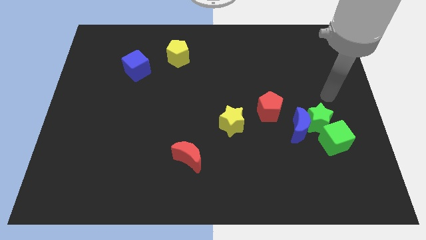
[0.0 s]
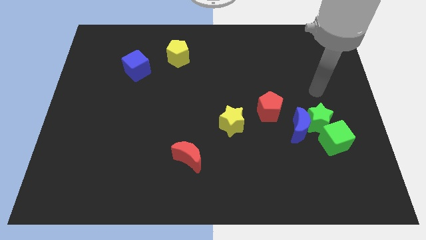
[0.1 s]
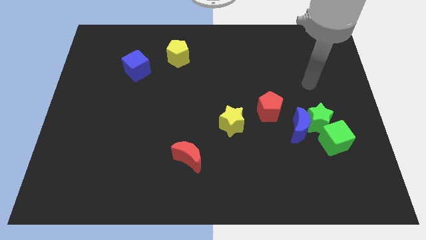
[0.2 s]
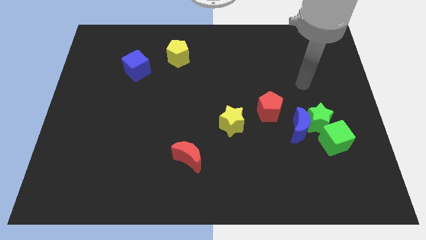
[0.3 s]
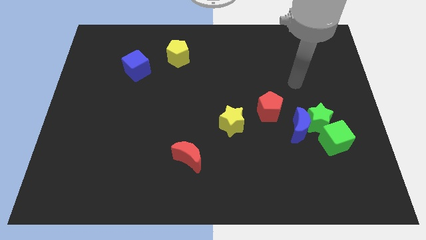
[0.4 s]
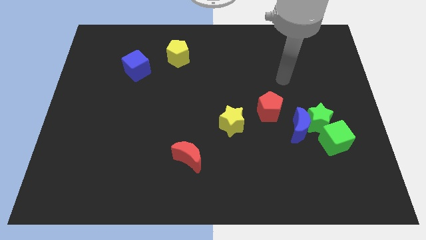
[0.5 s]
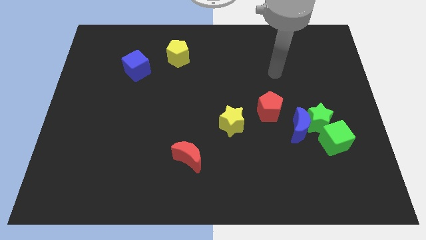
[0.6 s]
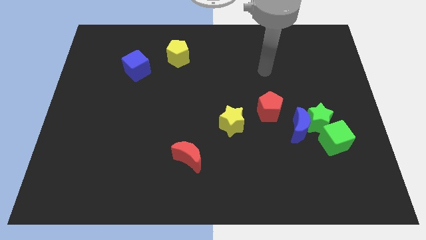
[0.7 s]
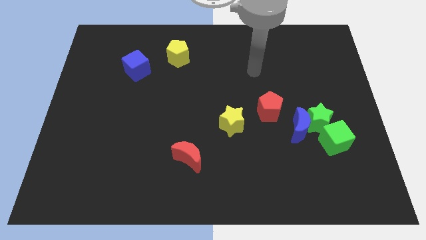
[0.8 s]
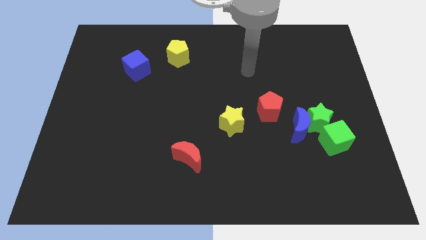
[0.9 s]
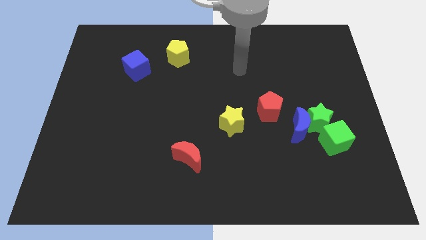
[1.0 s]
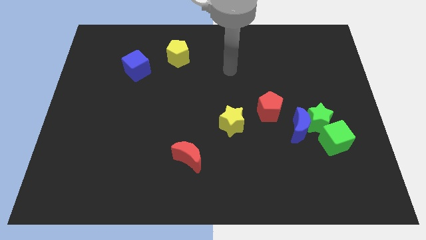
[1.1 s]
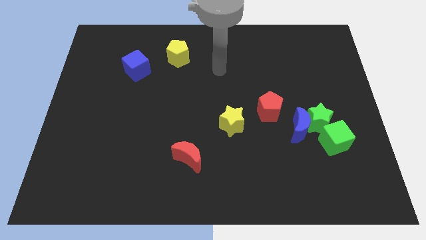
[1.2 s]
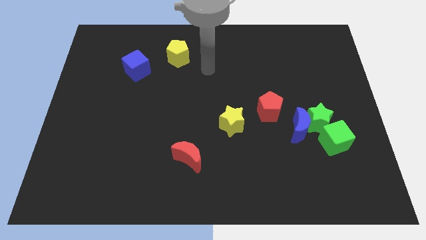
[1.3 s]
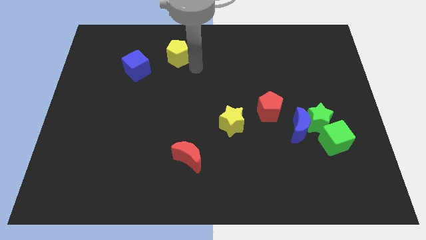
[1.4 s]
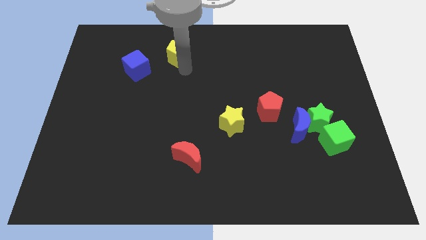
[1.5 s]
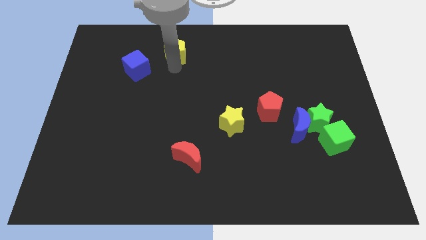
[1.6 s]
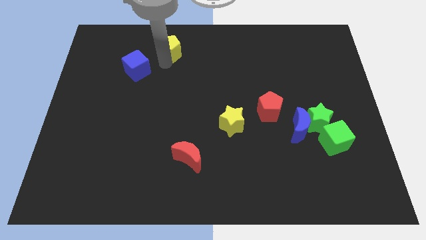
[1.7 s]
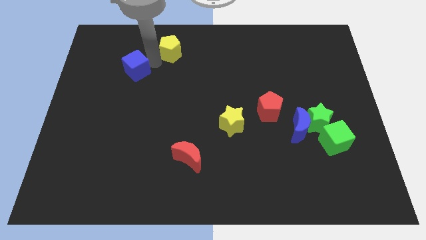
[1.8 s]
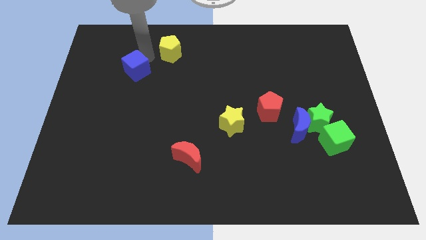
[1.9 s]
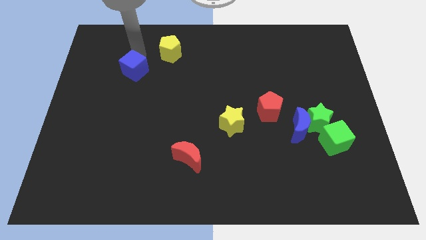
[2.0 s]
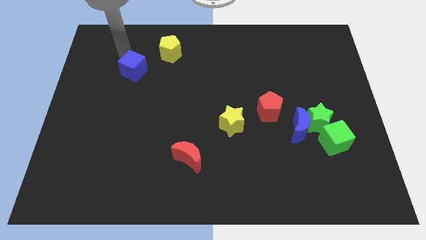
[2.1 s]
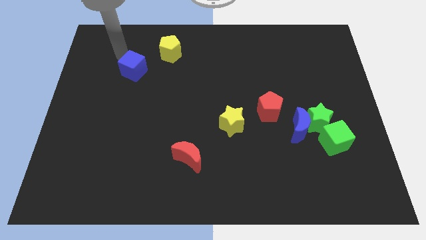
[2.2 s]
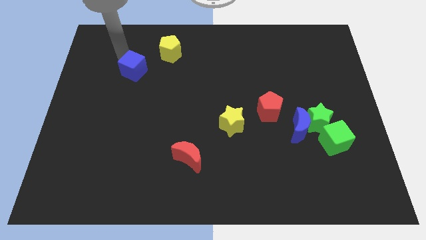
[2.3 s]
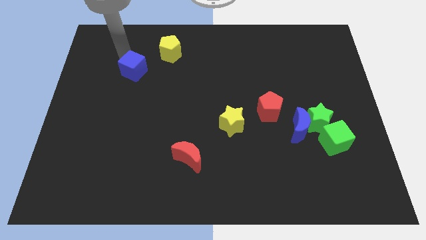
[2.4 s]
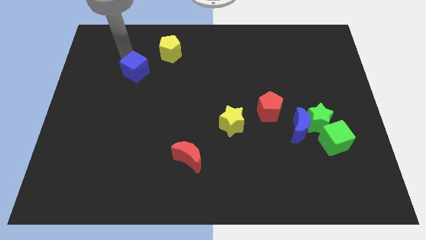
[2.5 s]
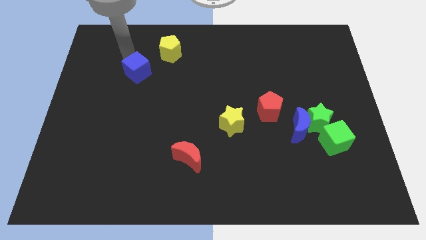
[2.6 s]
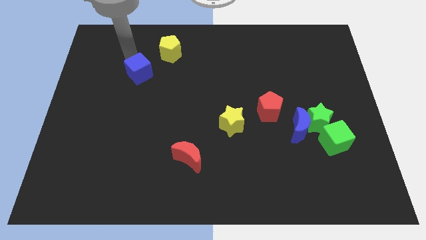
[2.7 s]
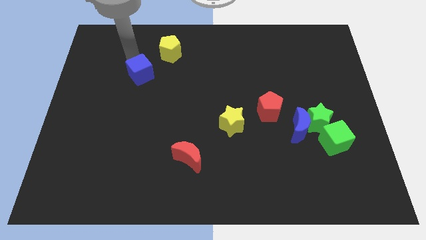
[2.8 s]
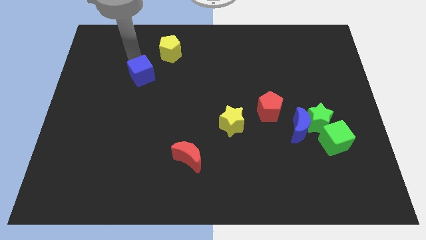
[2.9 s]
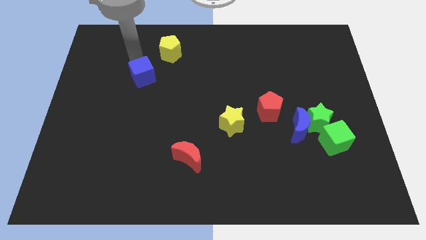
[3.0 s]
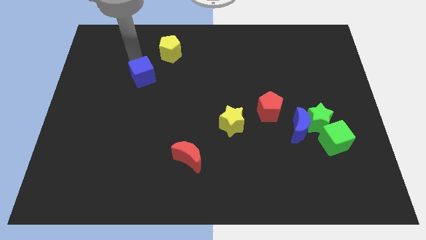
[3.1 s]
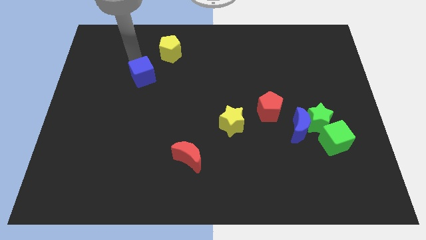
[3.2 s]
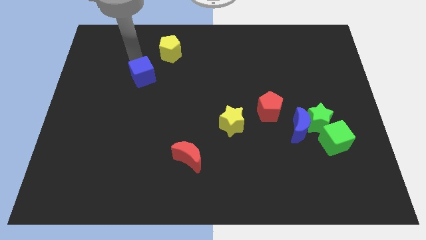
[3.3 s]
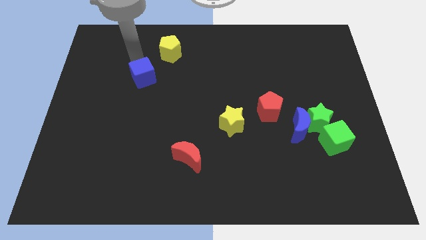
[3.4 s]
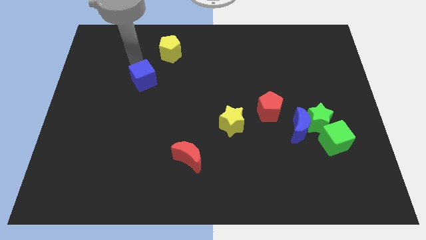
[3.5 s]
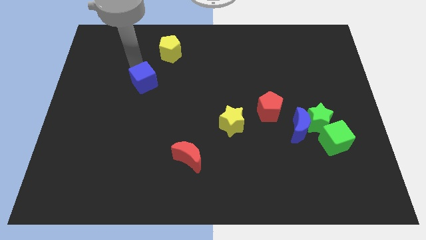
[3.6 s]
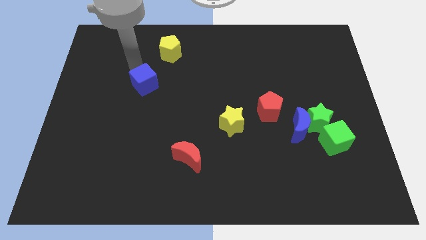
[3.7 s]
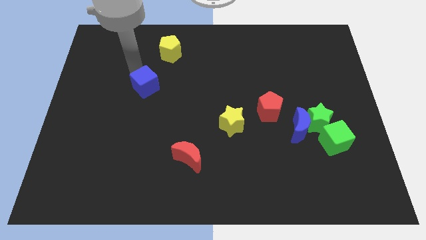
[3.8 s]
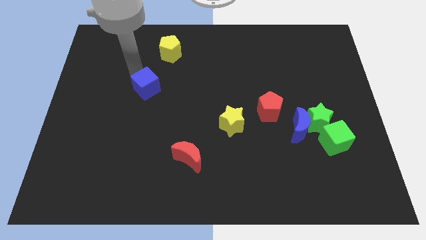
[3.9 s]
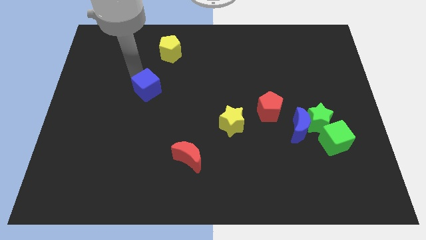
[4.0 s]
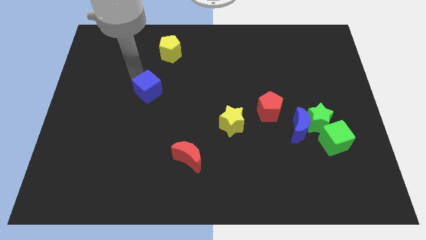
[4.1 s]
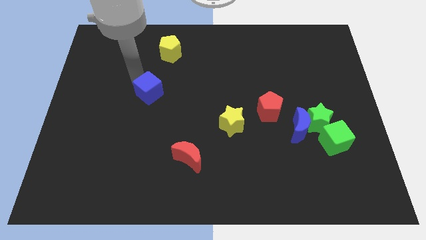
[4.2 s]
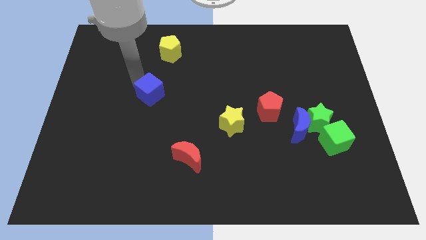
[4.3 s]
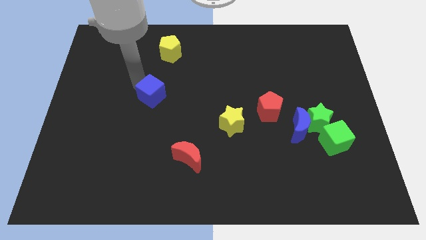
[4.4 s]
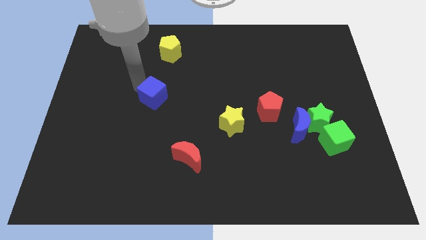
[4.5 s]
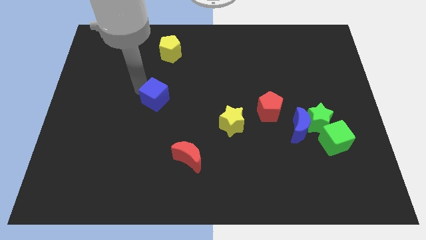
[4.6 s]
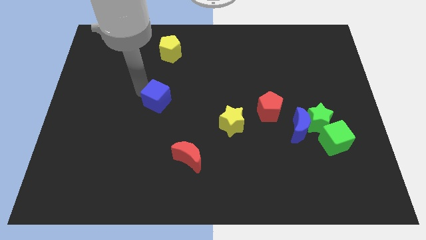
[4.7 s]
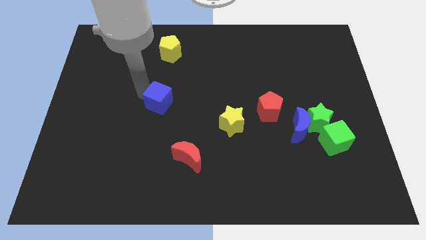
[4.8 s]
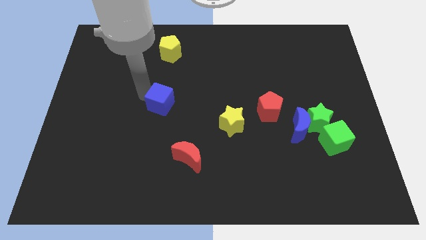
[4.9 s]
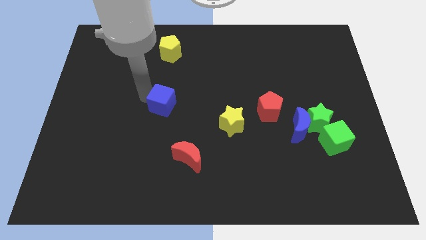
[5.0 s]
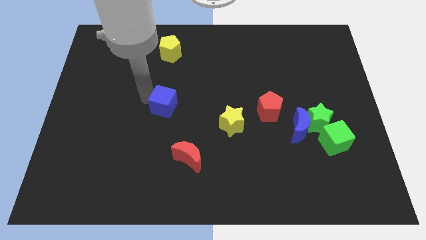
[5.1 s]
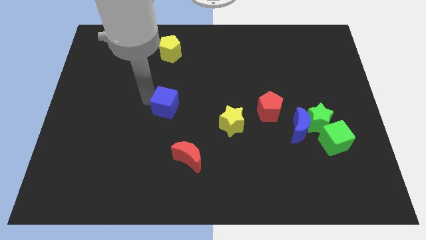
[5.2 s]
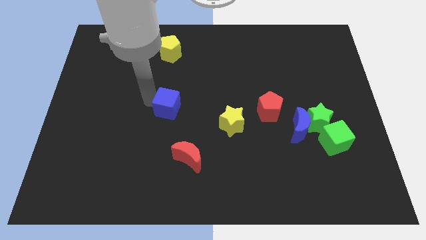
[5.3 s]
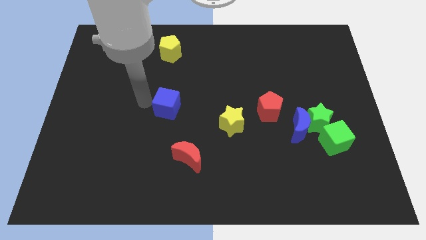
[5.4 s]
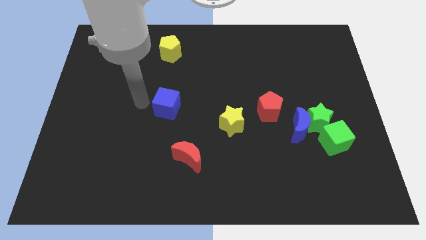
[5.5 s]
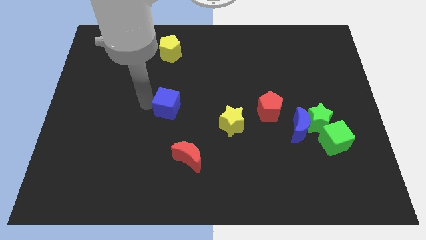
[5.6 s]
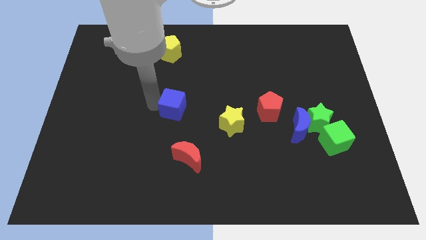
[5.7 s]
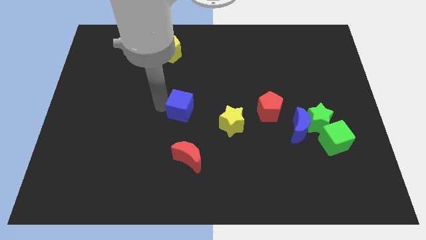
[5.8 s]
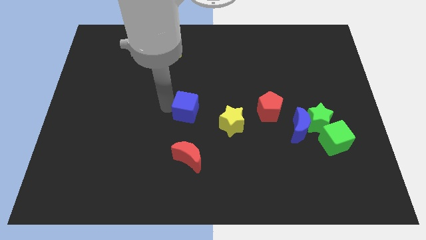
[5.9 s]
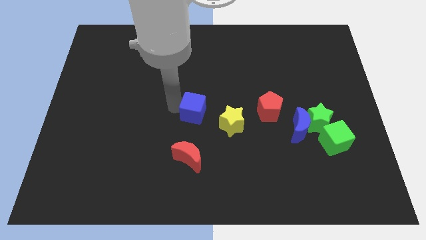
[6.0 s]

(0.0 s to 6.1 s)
slide the blue cube down and to the right diagonally

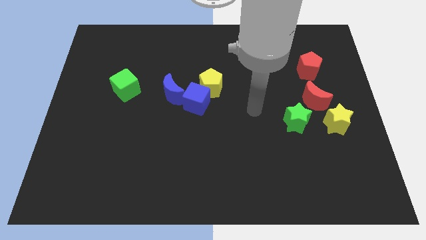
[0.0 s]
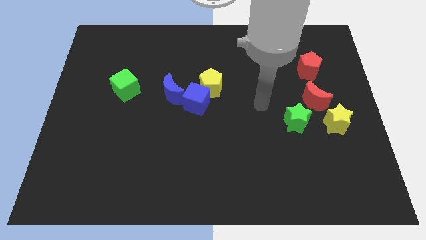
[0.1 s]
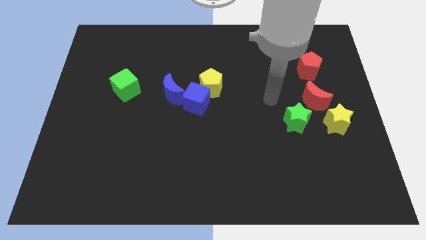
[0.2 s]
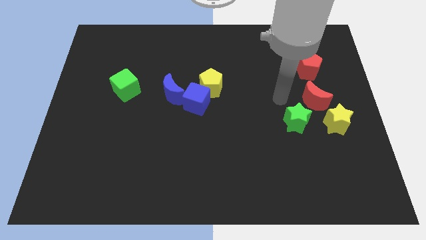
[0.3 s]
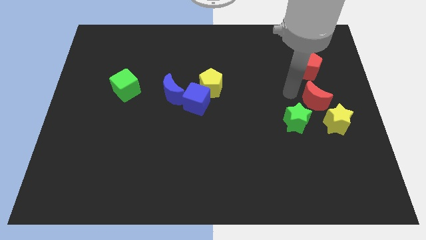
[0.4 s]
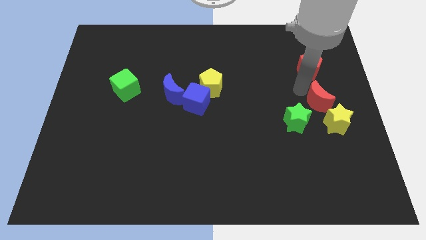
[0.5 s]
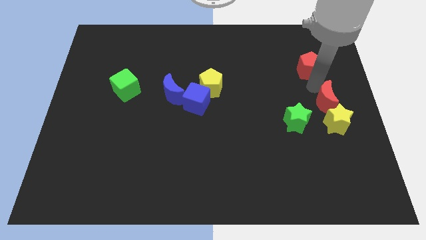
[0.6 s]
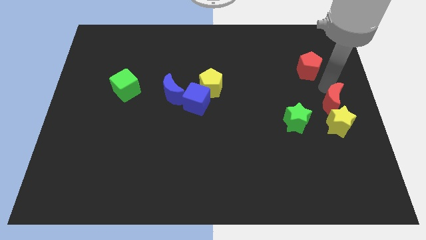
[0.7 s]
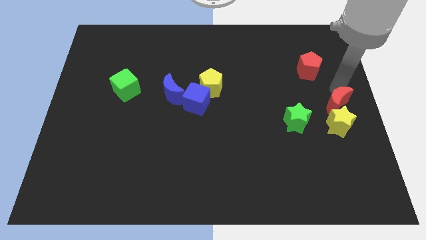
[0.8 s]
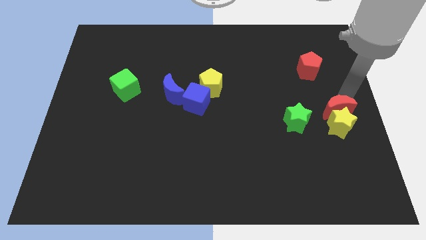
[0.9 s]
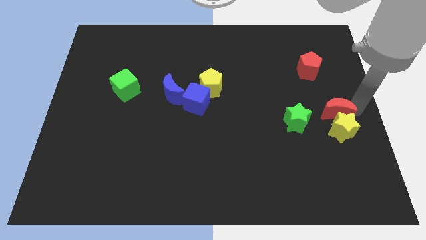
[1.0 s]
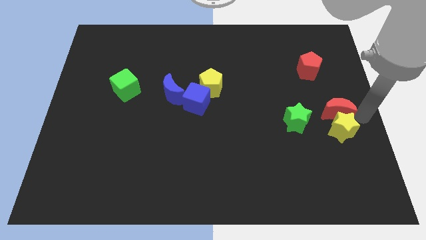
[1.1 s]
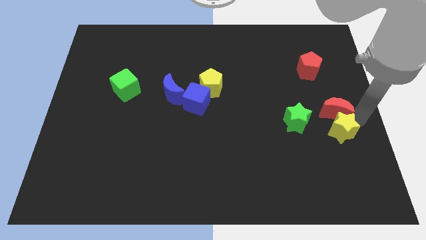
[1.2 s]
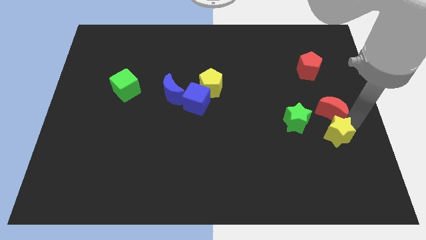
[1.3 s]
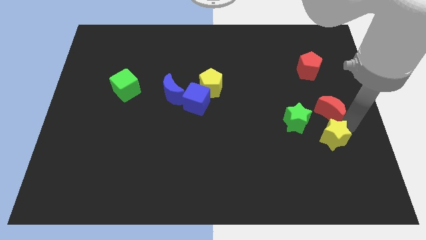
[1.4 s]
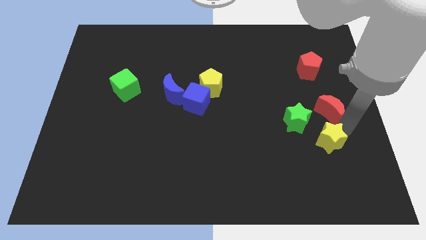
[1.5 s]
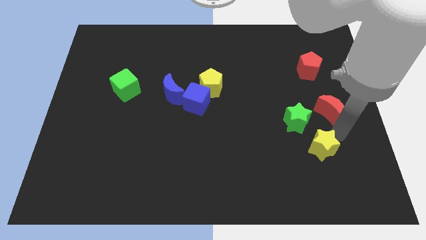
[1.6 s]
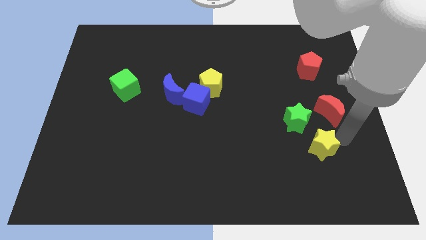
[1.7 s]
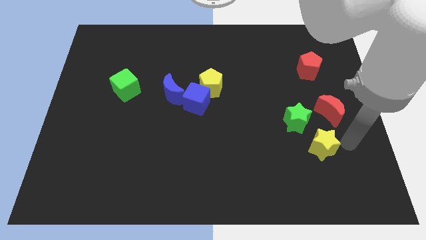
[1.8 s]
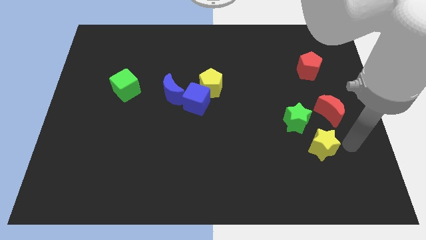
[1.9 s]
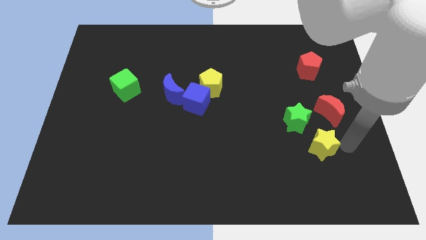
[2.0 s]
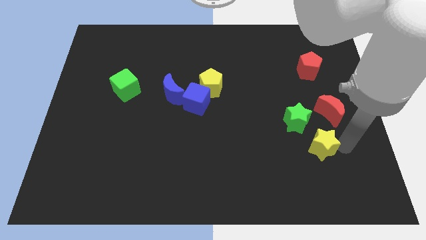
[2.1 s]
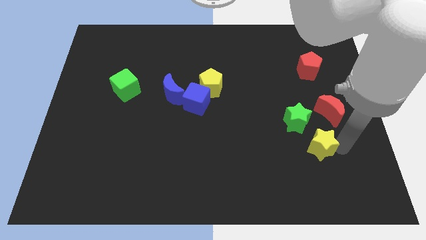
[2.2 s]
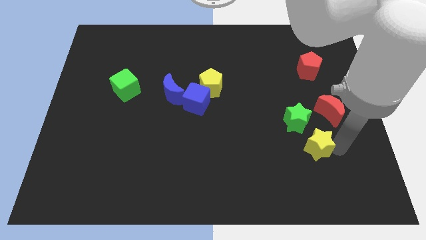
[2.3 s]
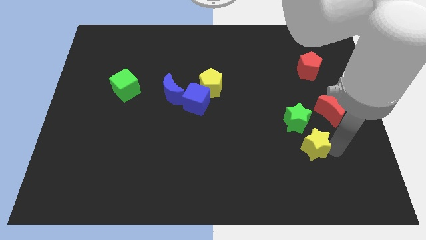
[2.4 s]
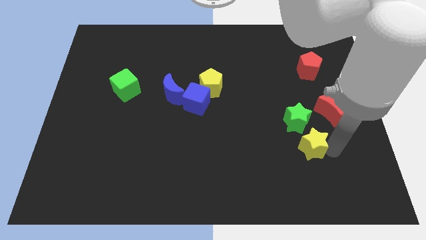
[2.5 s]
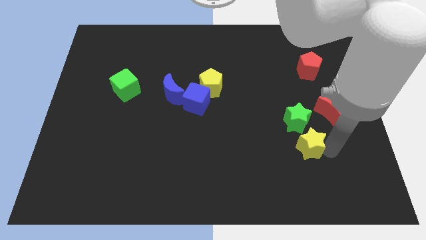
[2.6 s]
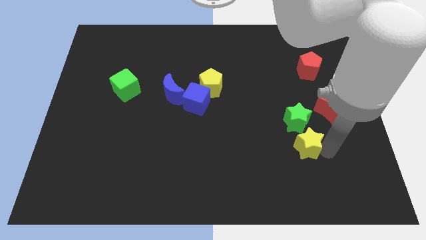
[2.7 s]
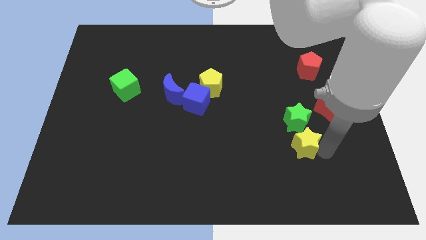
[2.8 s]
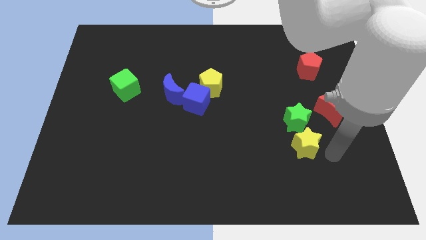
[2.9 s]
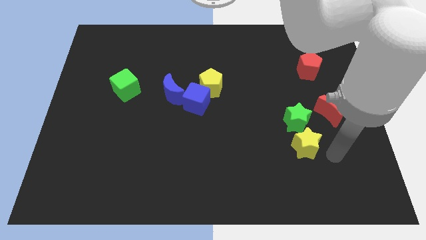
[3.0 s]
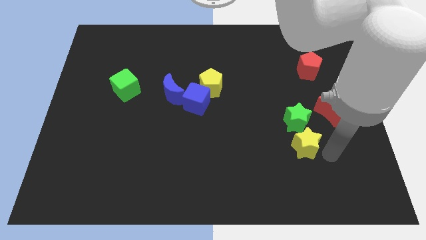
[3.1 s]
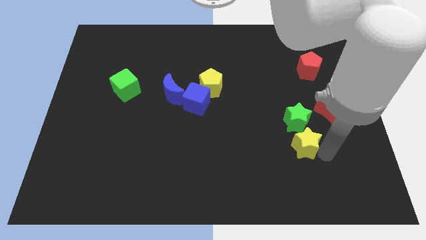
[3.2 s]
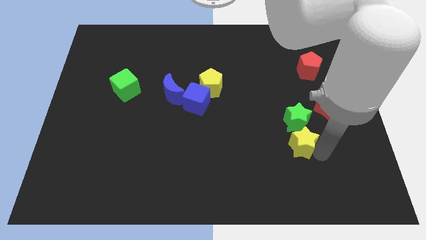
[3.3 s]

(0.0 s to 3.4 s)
move the yellow star to the left a bit
